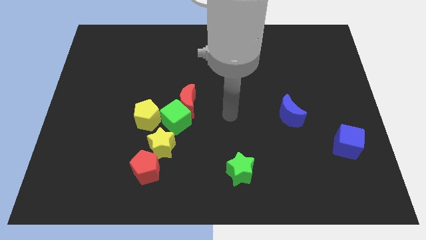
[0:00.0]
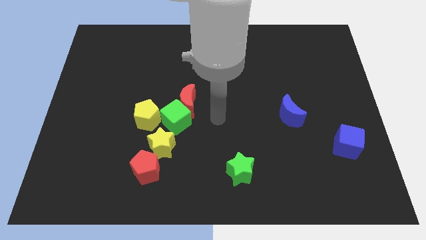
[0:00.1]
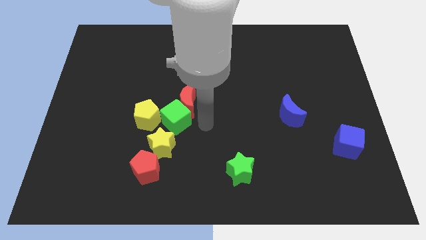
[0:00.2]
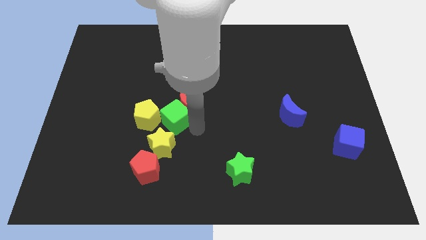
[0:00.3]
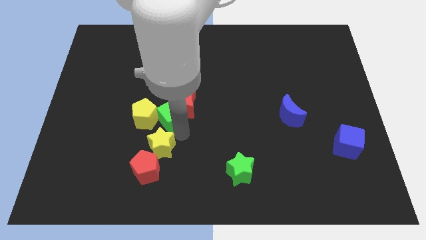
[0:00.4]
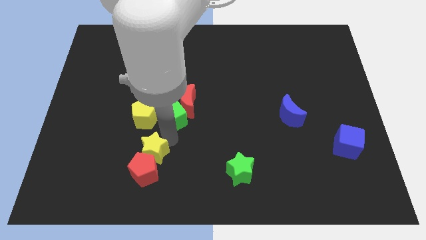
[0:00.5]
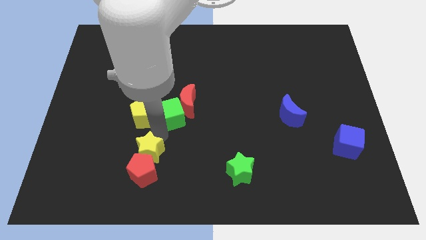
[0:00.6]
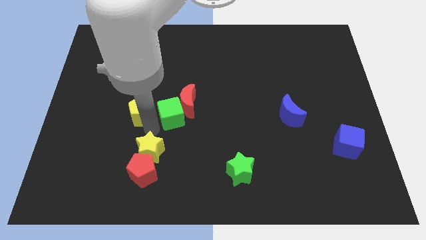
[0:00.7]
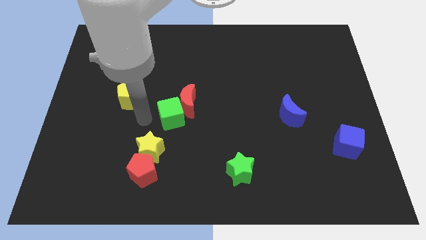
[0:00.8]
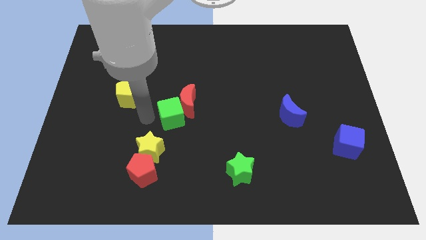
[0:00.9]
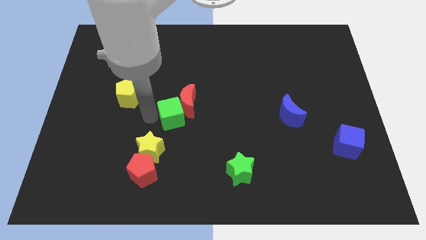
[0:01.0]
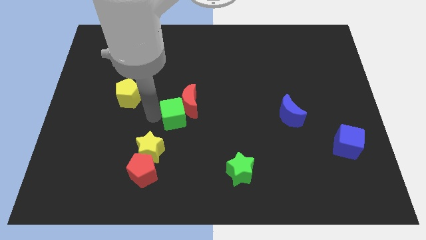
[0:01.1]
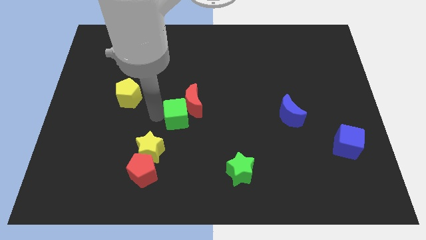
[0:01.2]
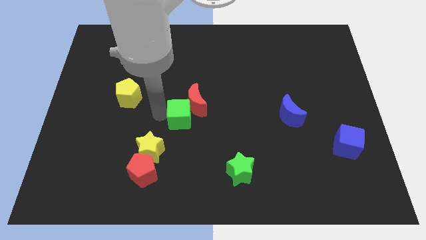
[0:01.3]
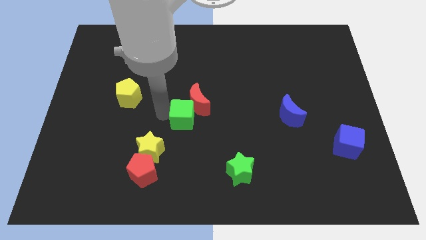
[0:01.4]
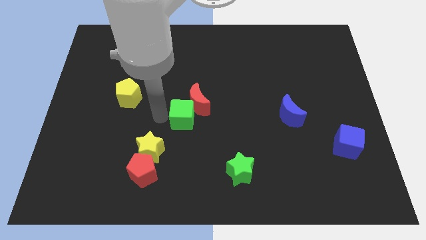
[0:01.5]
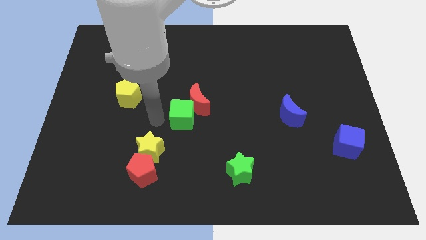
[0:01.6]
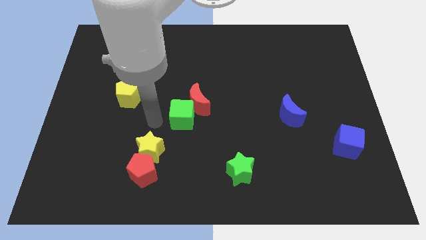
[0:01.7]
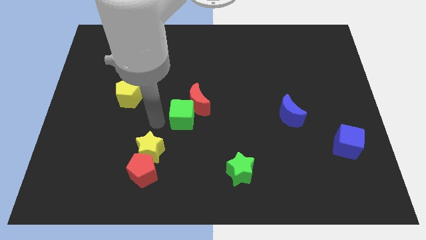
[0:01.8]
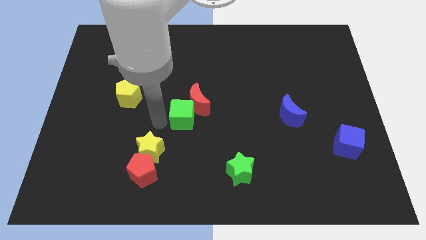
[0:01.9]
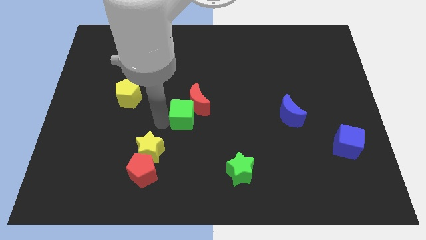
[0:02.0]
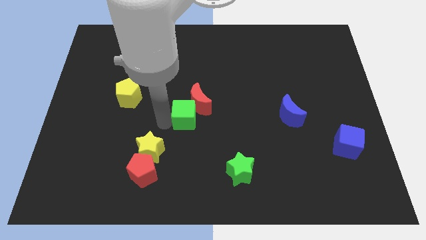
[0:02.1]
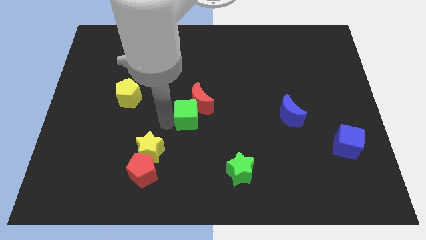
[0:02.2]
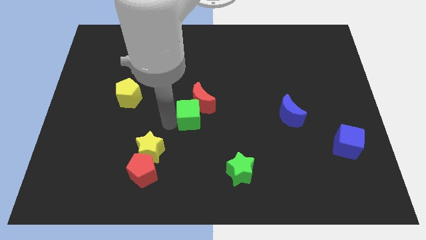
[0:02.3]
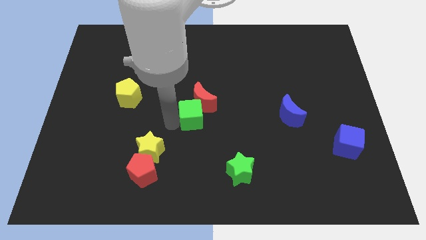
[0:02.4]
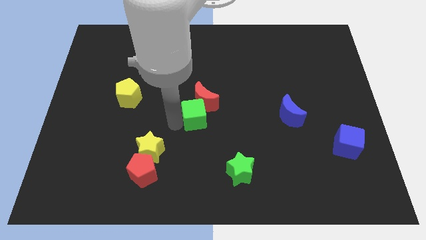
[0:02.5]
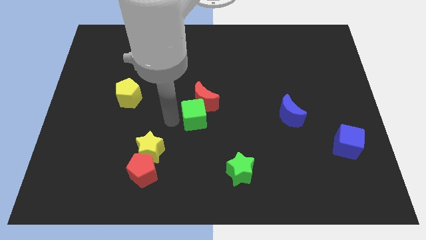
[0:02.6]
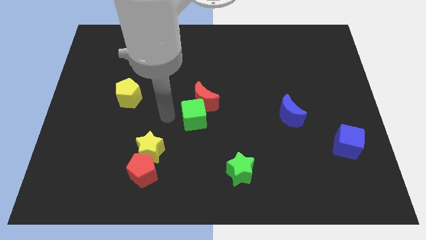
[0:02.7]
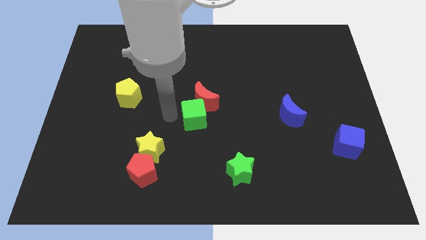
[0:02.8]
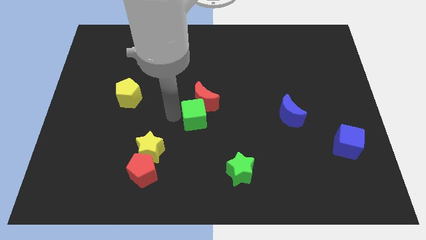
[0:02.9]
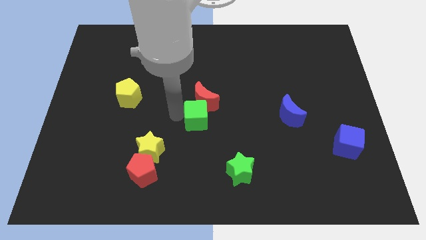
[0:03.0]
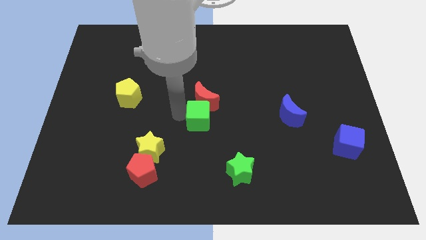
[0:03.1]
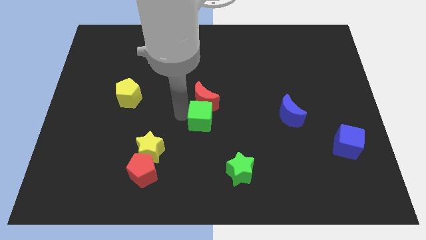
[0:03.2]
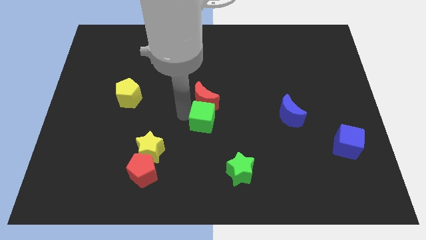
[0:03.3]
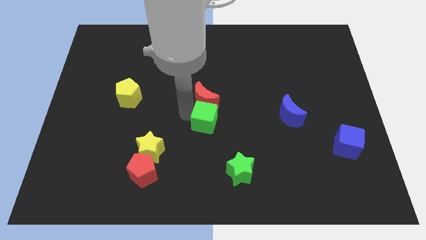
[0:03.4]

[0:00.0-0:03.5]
pull the green cube apart from the red moon, yellow pentagon, and yellow star

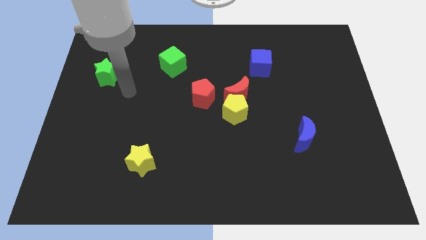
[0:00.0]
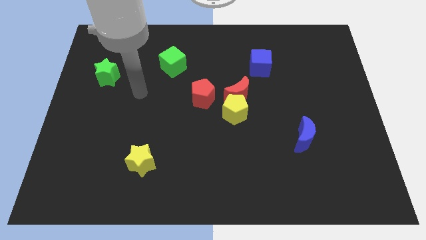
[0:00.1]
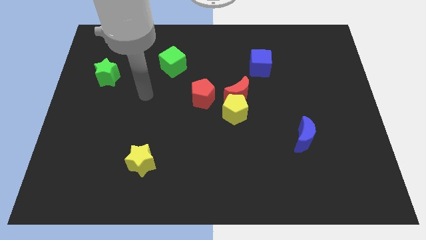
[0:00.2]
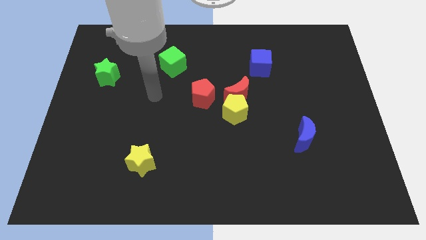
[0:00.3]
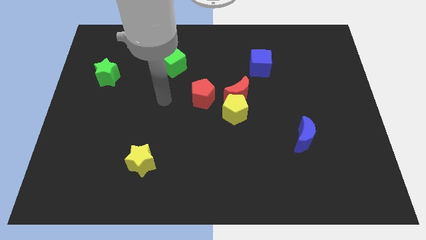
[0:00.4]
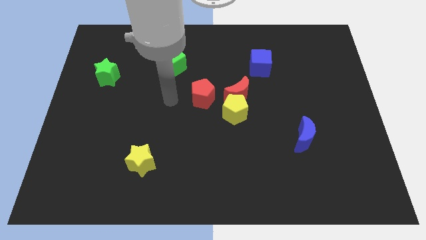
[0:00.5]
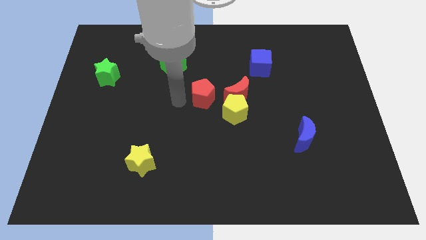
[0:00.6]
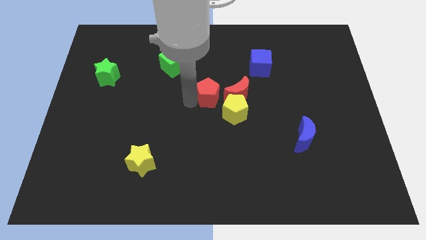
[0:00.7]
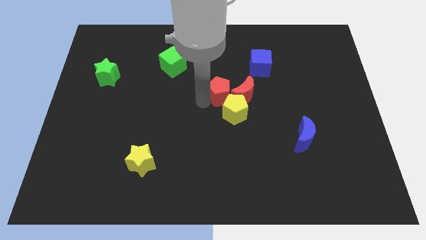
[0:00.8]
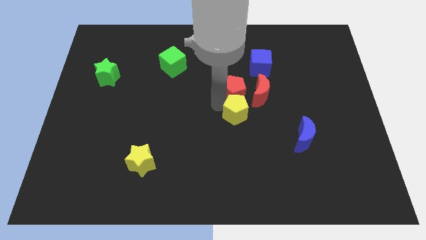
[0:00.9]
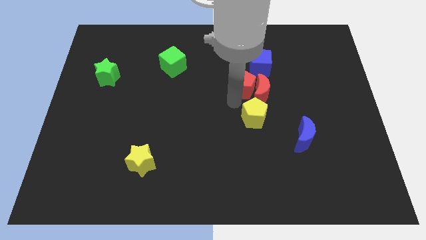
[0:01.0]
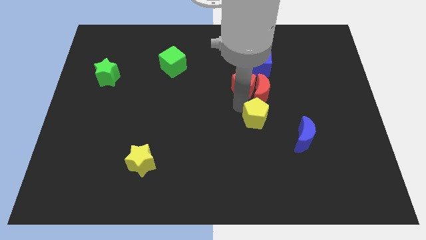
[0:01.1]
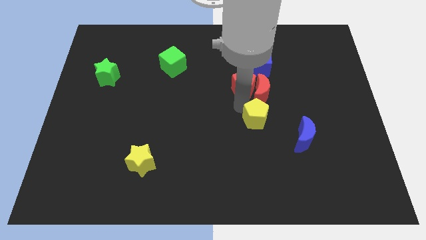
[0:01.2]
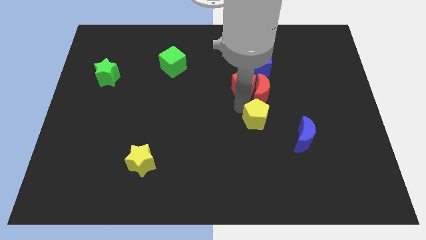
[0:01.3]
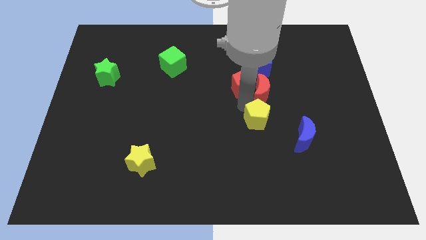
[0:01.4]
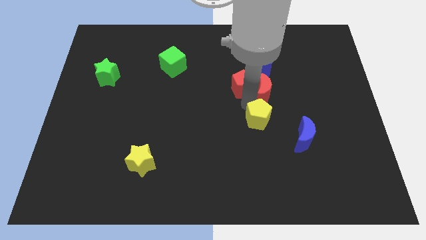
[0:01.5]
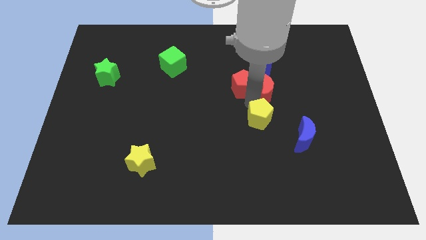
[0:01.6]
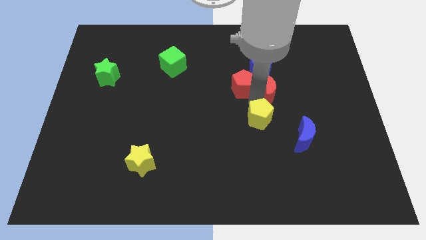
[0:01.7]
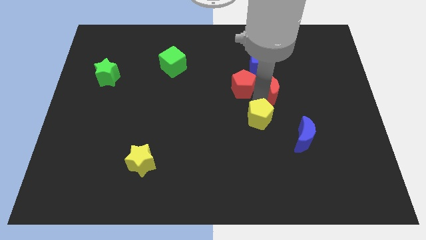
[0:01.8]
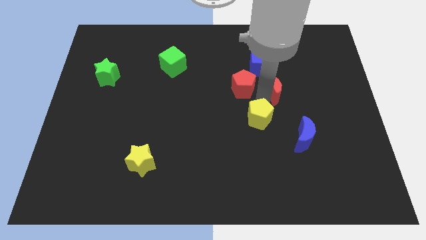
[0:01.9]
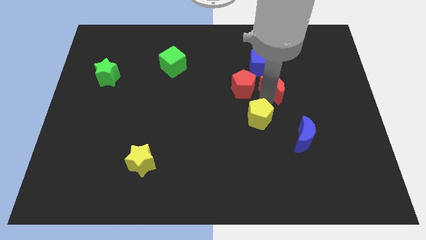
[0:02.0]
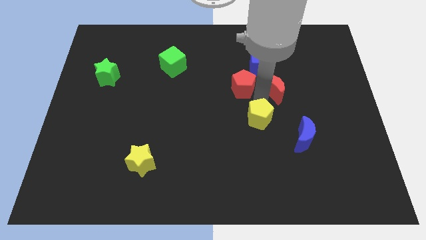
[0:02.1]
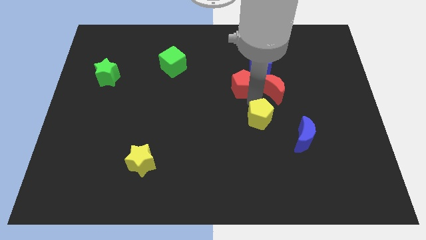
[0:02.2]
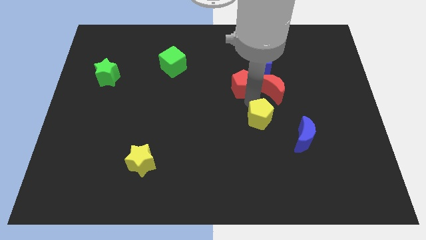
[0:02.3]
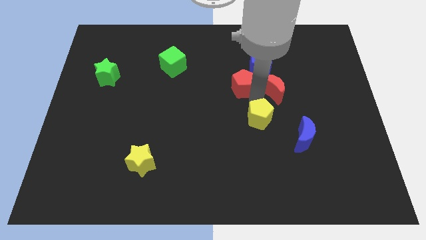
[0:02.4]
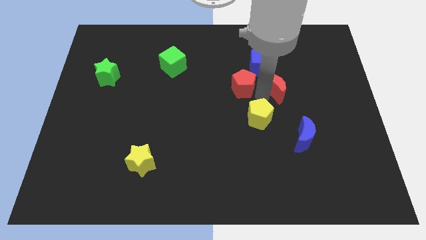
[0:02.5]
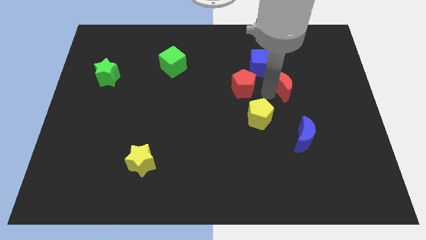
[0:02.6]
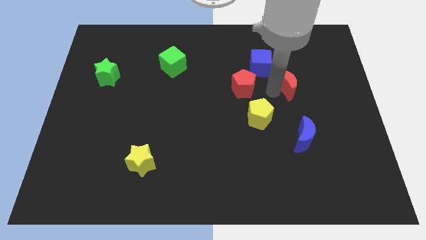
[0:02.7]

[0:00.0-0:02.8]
pull the red moon apart from the yellow pentagon and red pentagon

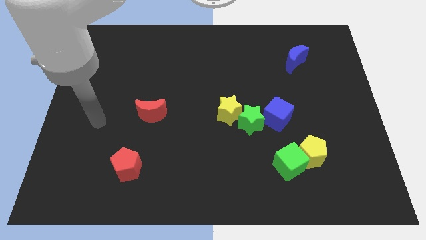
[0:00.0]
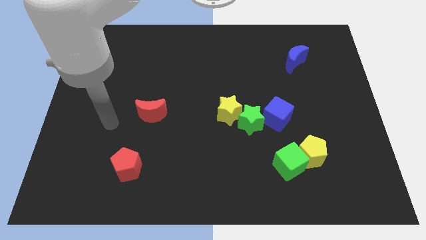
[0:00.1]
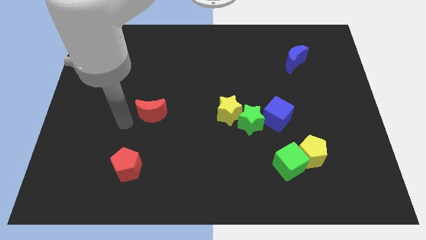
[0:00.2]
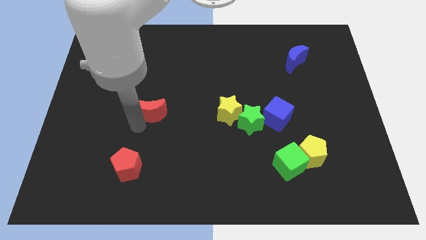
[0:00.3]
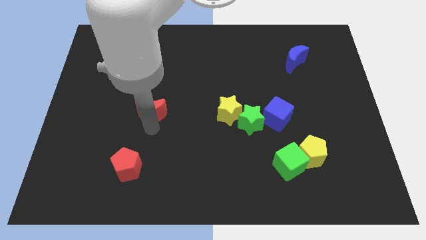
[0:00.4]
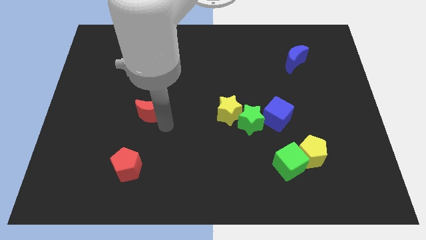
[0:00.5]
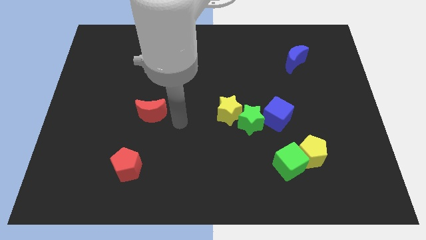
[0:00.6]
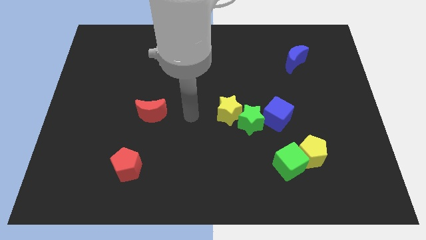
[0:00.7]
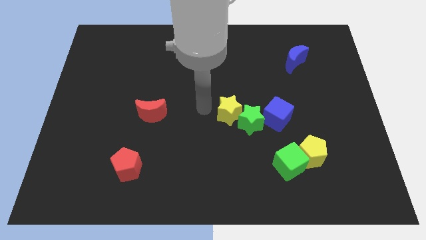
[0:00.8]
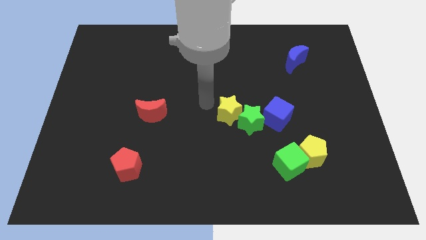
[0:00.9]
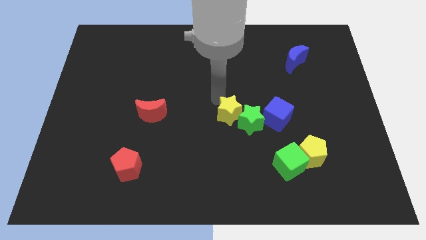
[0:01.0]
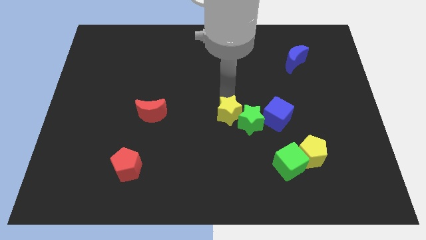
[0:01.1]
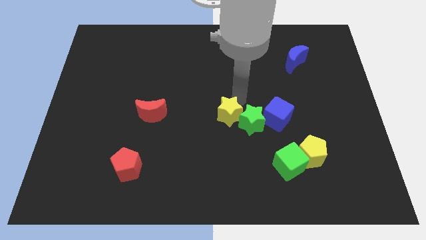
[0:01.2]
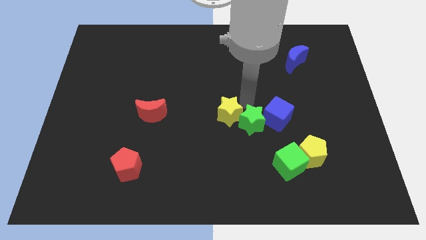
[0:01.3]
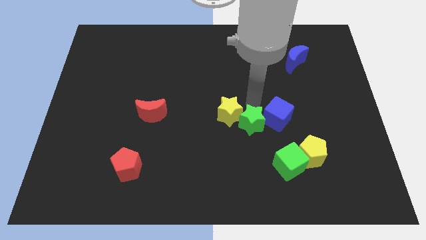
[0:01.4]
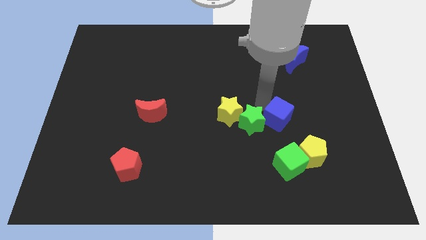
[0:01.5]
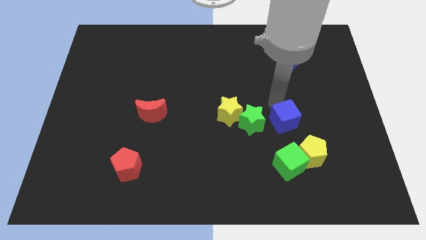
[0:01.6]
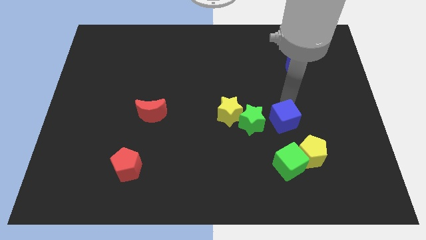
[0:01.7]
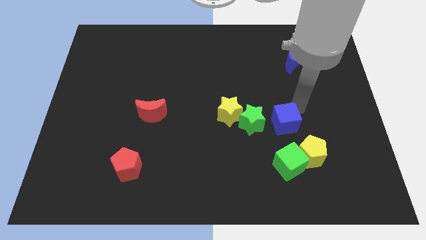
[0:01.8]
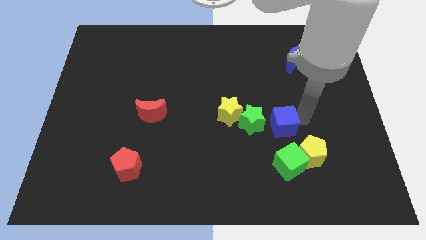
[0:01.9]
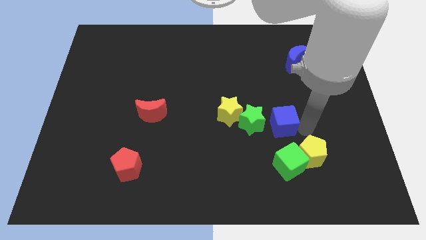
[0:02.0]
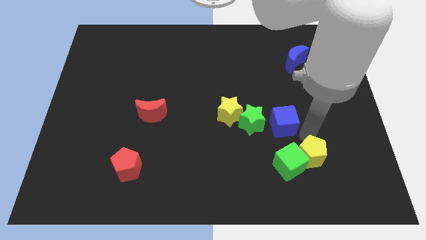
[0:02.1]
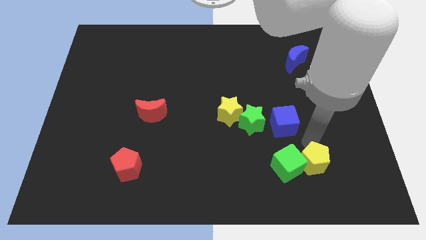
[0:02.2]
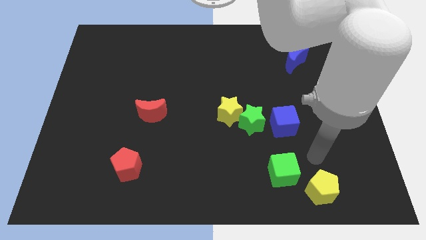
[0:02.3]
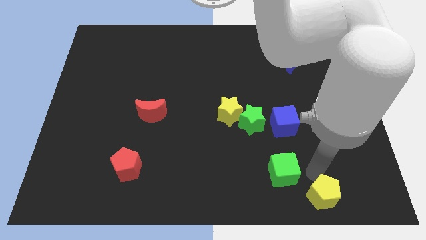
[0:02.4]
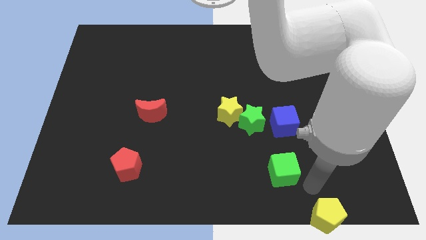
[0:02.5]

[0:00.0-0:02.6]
move the green cube away from the yellow pentagon

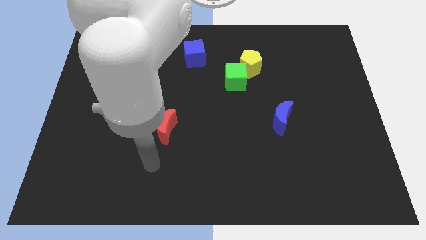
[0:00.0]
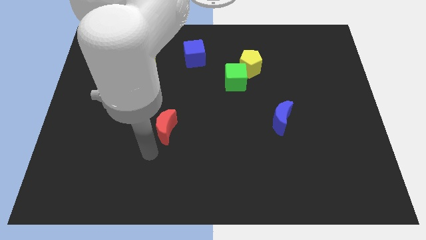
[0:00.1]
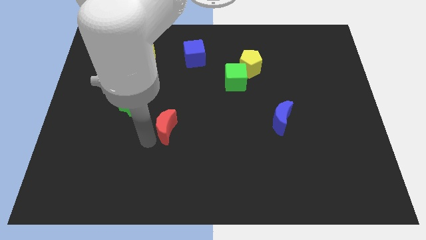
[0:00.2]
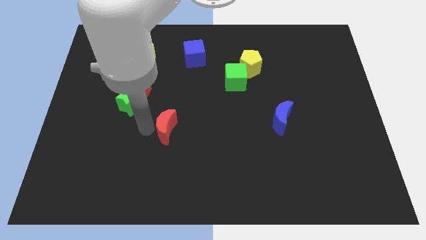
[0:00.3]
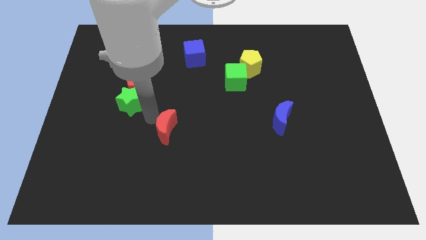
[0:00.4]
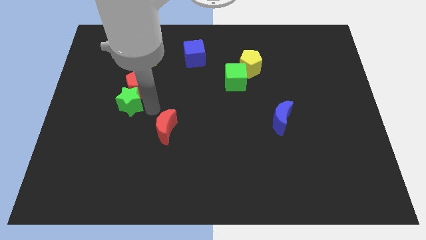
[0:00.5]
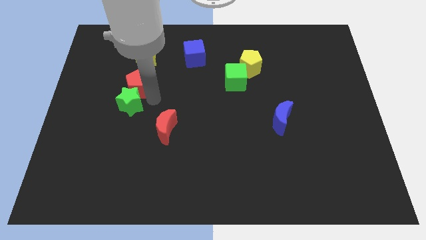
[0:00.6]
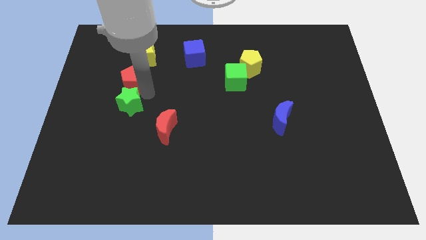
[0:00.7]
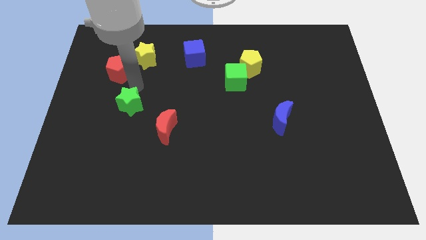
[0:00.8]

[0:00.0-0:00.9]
move the green star away from the red pentagon
